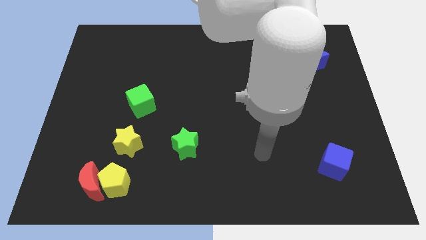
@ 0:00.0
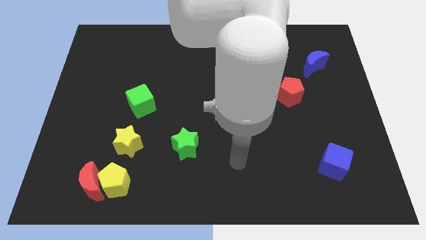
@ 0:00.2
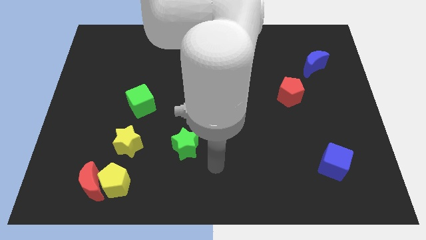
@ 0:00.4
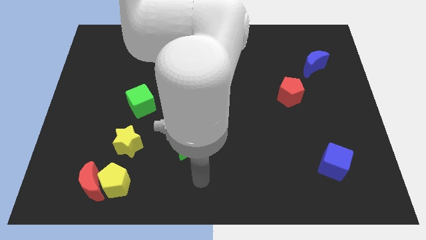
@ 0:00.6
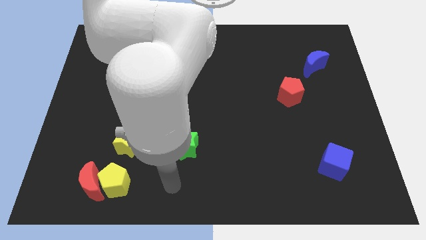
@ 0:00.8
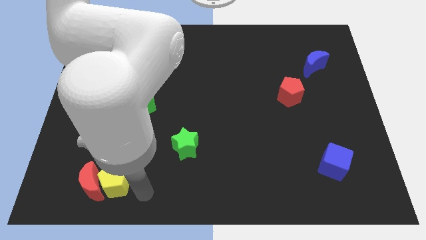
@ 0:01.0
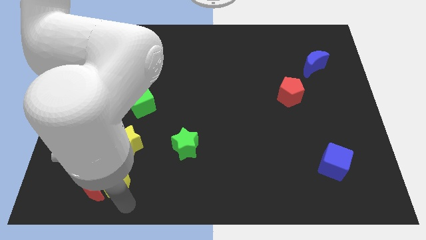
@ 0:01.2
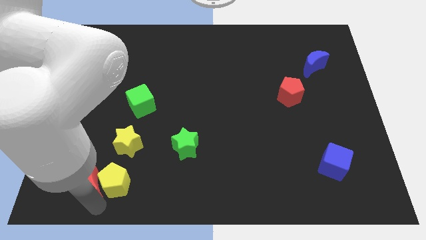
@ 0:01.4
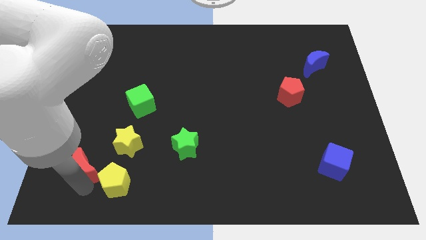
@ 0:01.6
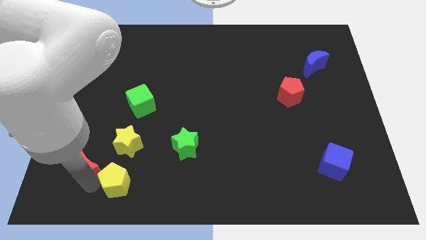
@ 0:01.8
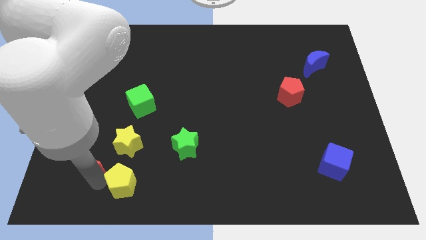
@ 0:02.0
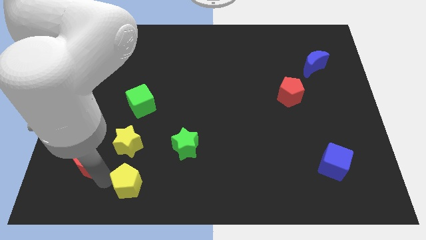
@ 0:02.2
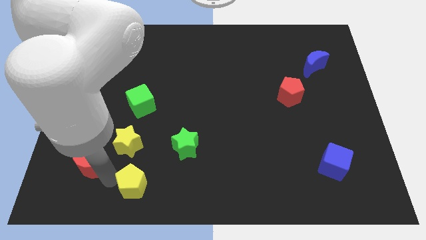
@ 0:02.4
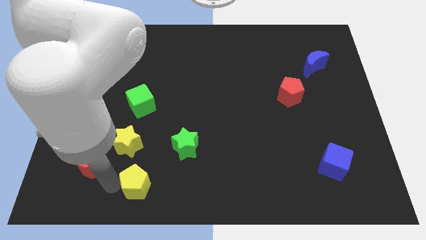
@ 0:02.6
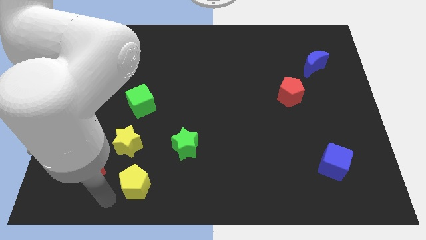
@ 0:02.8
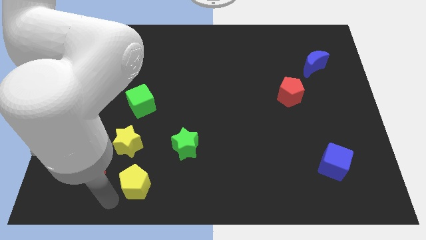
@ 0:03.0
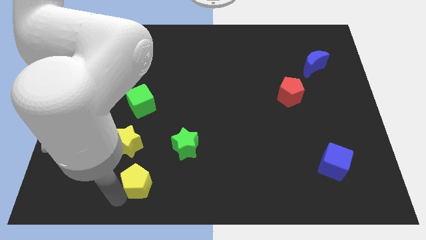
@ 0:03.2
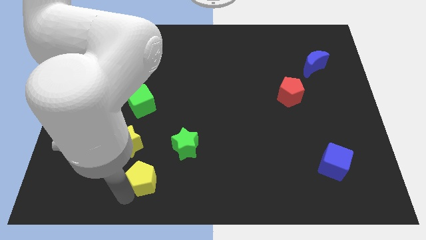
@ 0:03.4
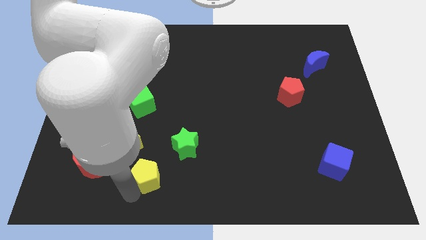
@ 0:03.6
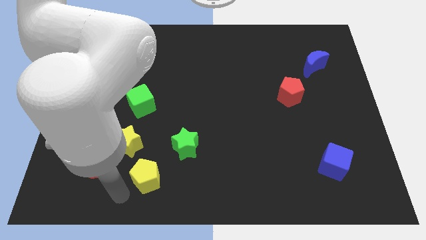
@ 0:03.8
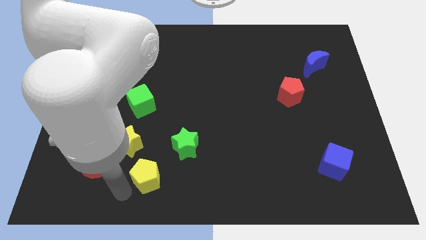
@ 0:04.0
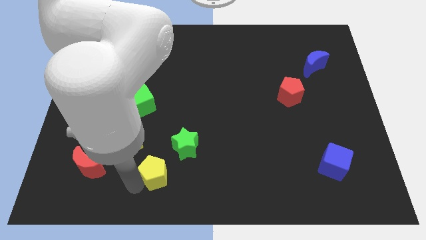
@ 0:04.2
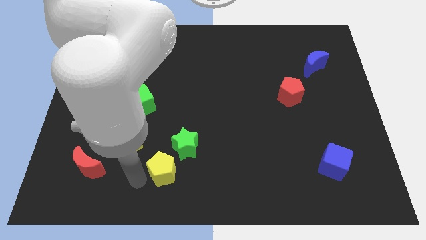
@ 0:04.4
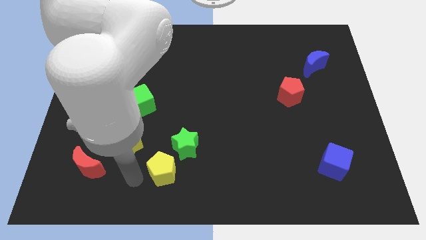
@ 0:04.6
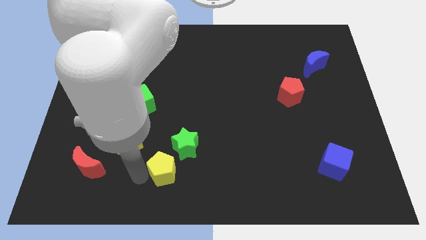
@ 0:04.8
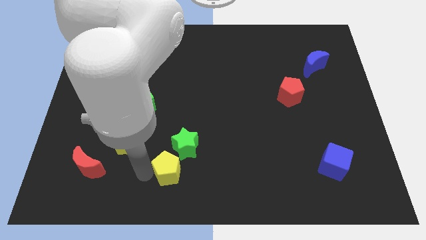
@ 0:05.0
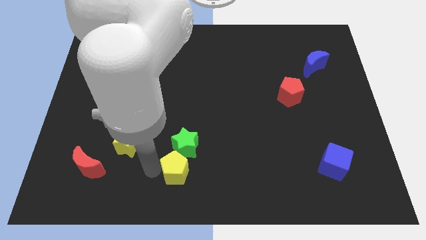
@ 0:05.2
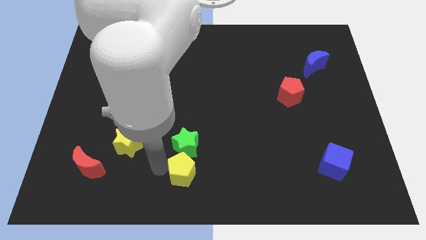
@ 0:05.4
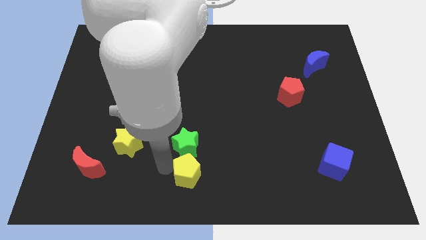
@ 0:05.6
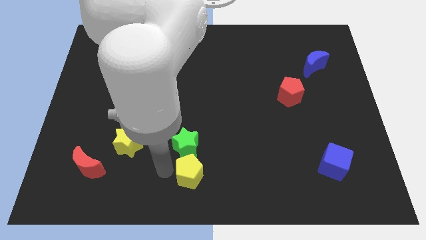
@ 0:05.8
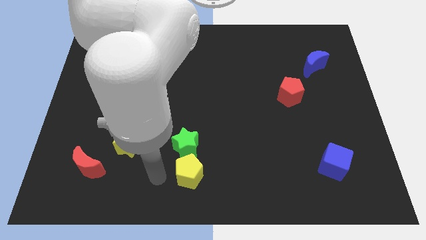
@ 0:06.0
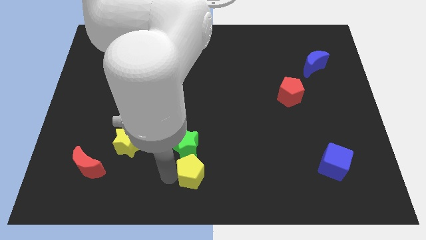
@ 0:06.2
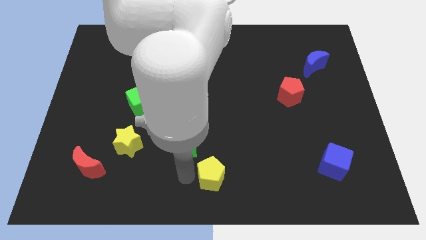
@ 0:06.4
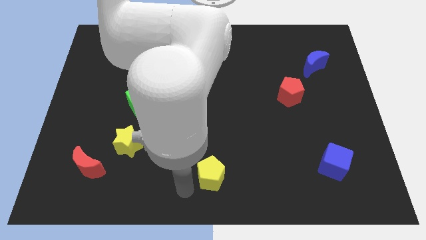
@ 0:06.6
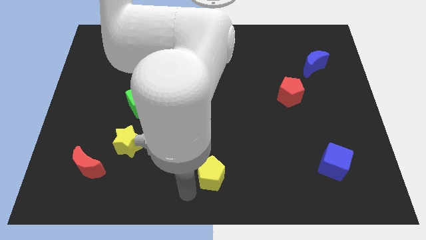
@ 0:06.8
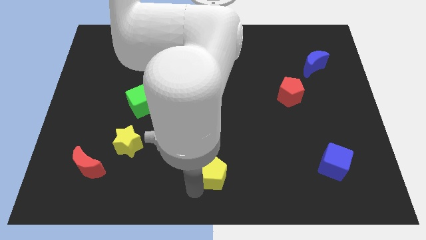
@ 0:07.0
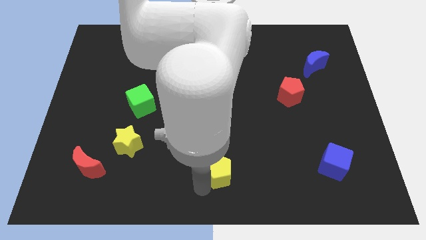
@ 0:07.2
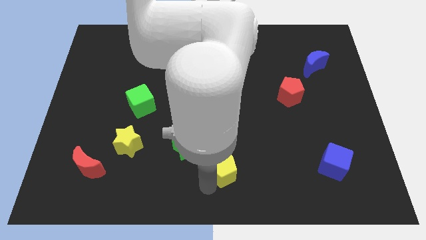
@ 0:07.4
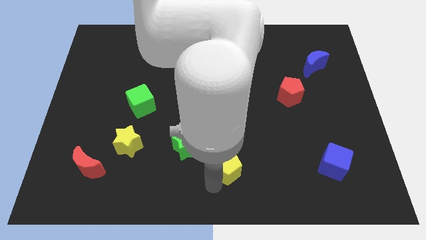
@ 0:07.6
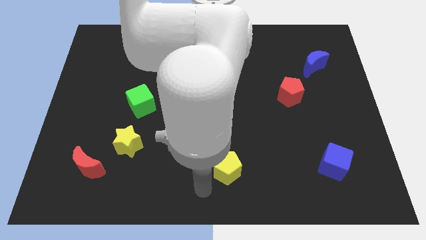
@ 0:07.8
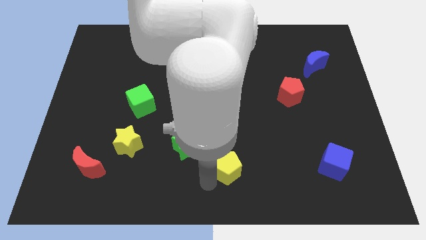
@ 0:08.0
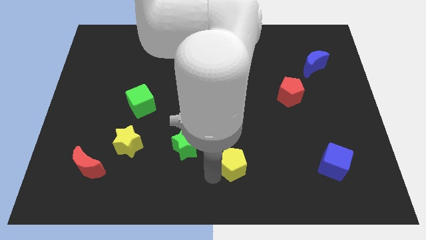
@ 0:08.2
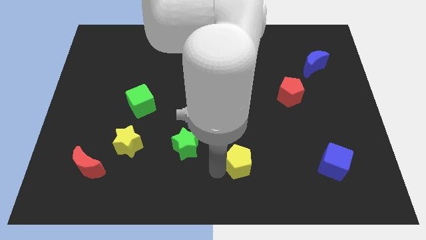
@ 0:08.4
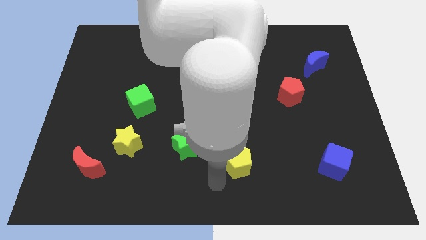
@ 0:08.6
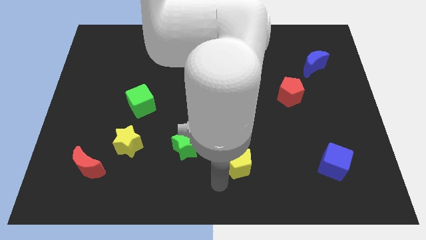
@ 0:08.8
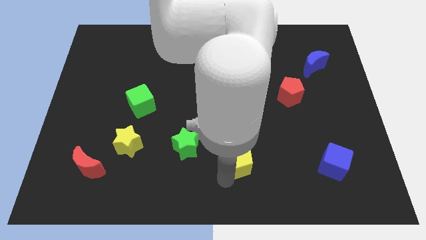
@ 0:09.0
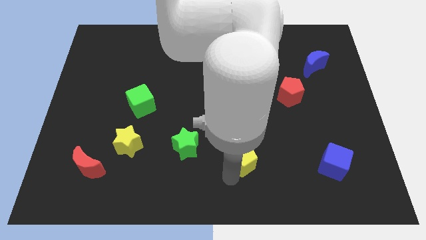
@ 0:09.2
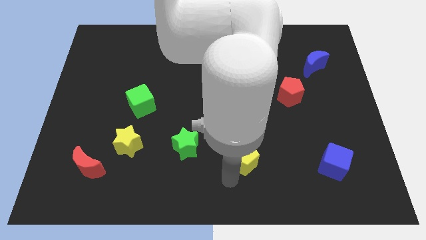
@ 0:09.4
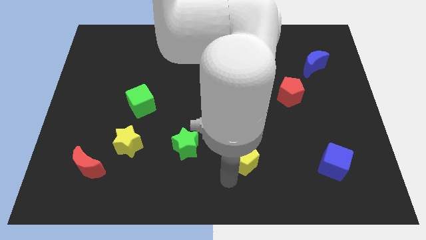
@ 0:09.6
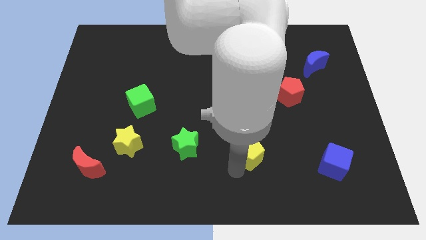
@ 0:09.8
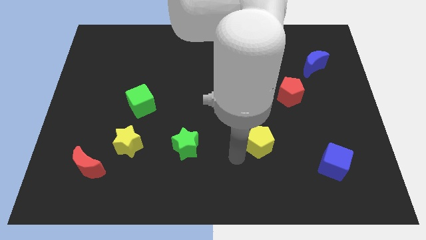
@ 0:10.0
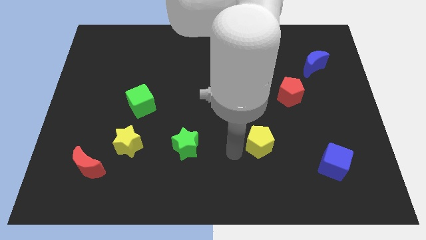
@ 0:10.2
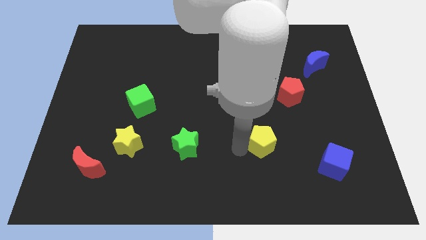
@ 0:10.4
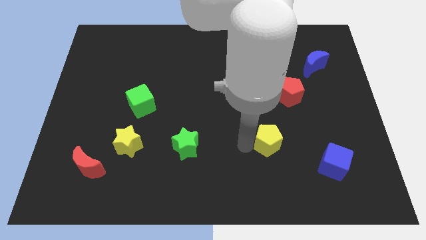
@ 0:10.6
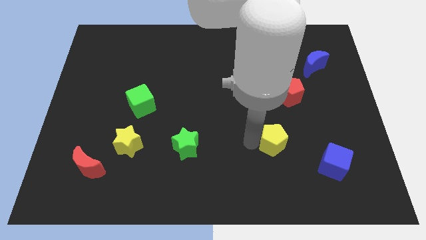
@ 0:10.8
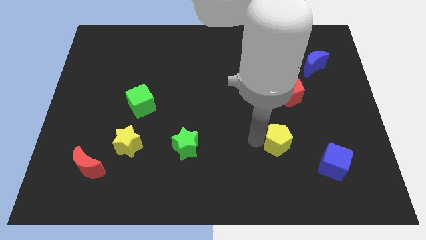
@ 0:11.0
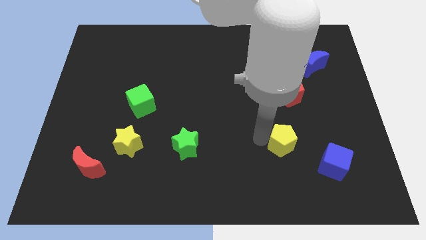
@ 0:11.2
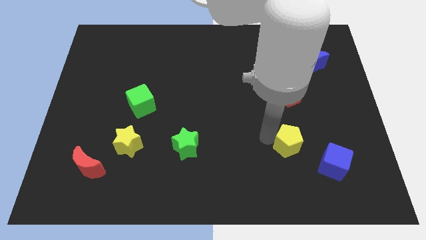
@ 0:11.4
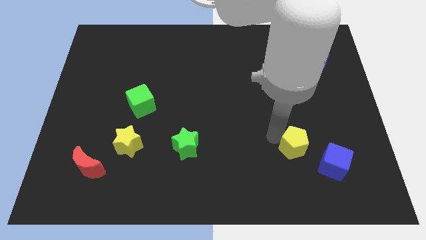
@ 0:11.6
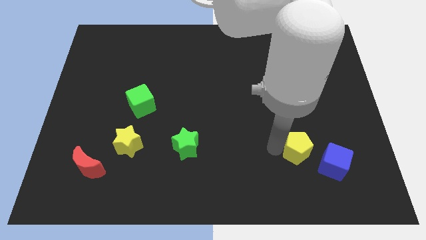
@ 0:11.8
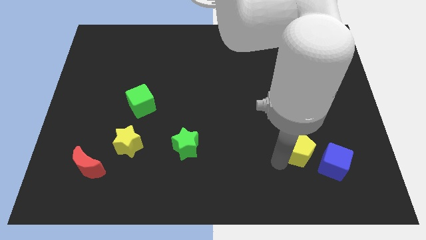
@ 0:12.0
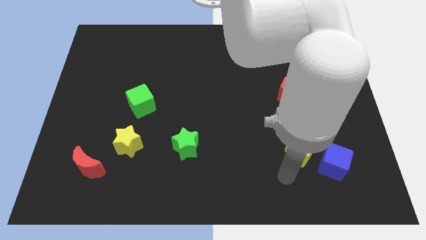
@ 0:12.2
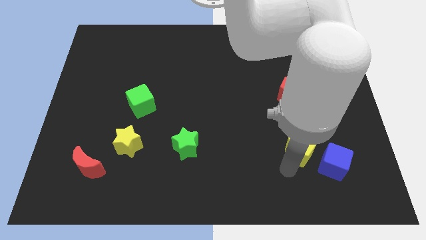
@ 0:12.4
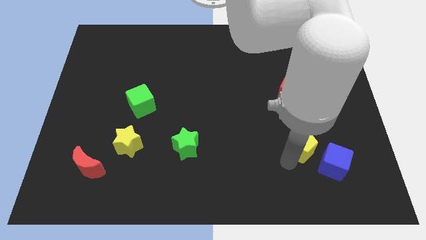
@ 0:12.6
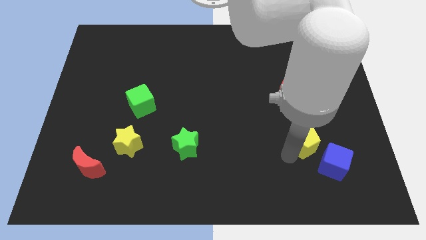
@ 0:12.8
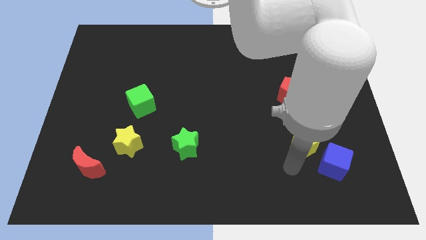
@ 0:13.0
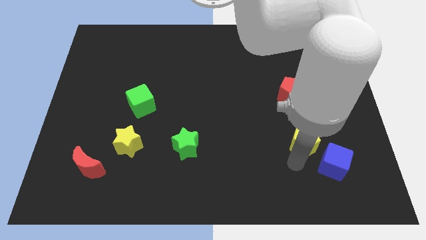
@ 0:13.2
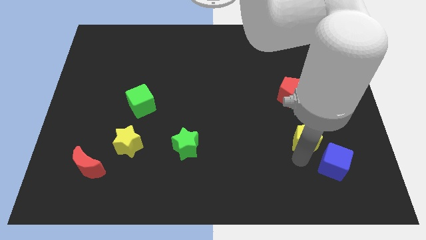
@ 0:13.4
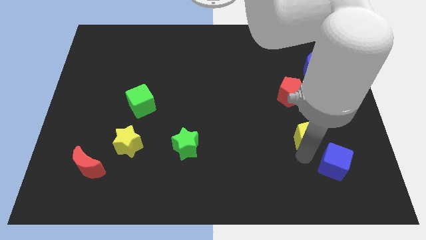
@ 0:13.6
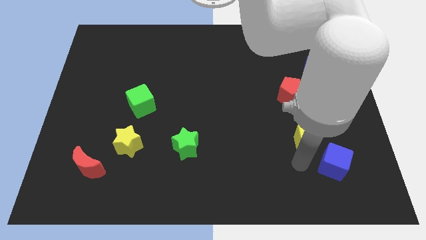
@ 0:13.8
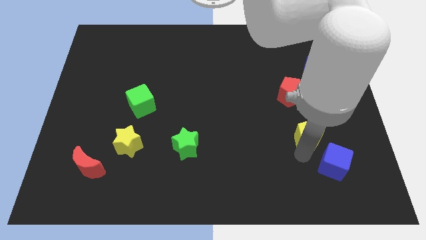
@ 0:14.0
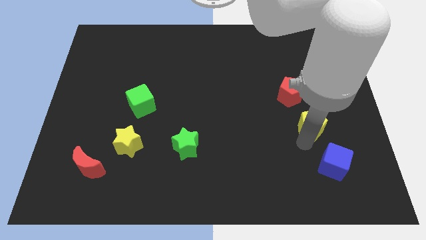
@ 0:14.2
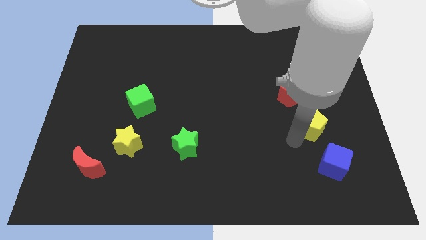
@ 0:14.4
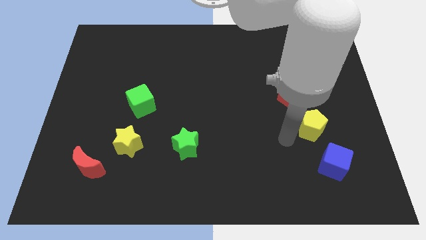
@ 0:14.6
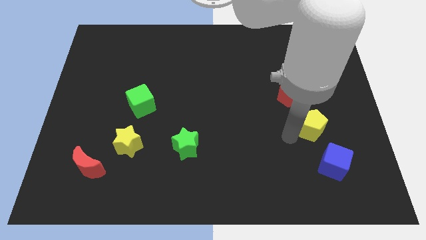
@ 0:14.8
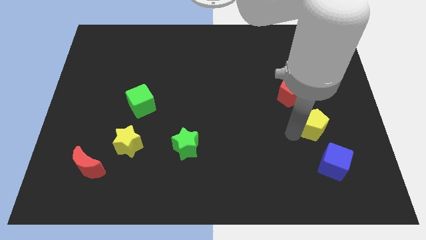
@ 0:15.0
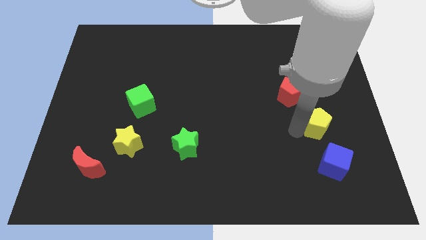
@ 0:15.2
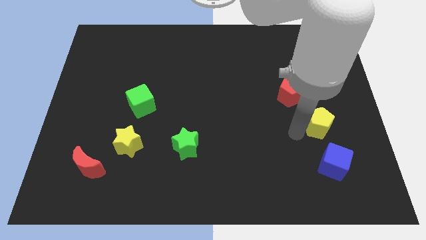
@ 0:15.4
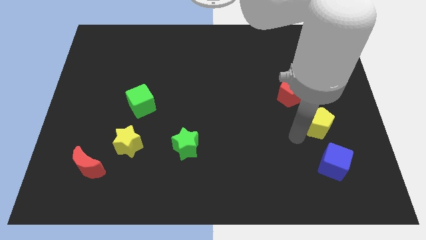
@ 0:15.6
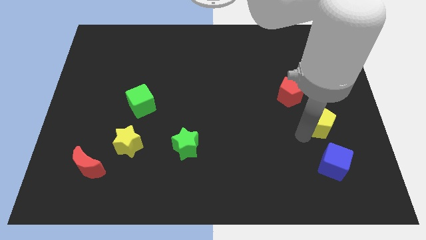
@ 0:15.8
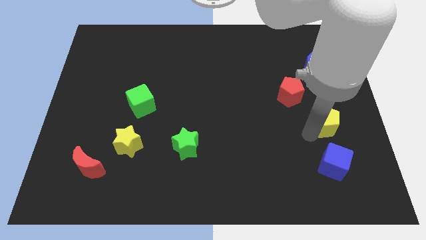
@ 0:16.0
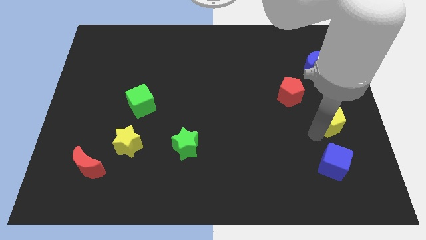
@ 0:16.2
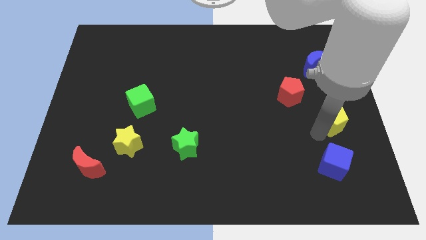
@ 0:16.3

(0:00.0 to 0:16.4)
slide the yellow pentagon to the center right
